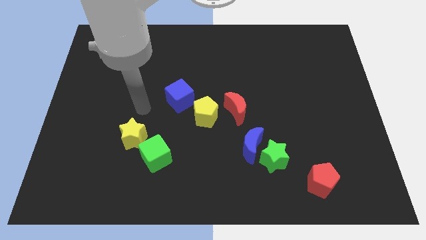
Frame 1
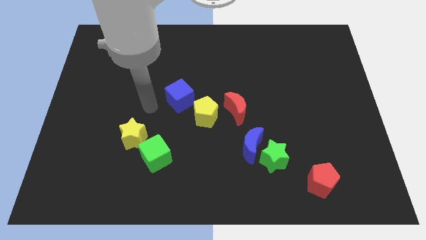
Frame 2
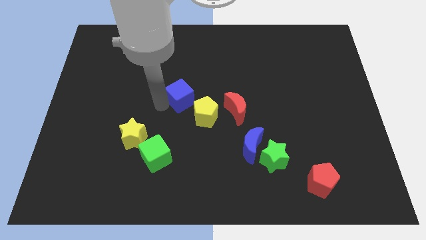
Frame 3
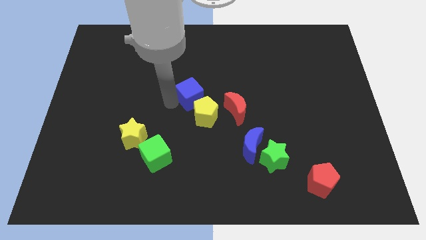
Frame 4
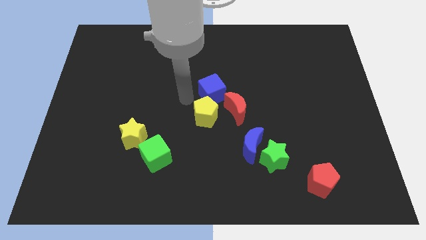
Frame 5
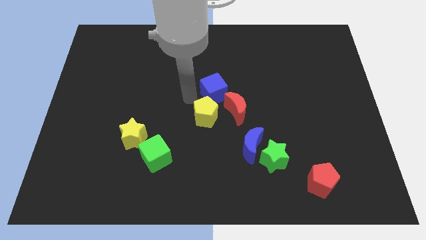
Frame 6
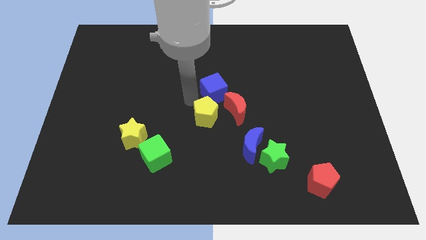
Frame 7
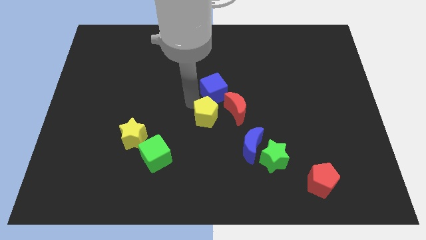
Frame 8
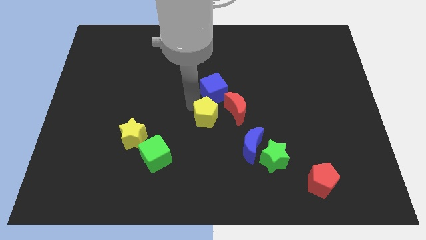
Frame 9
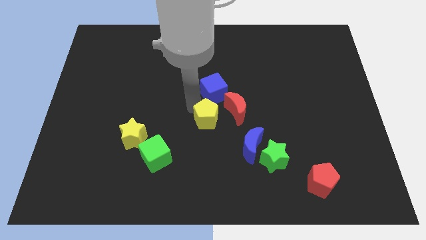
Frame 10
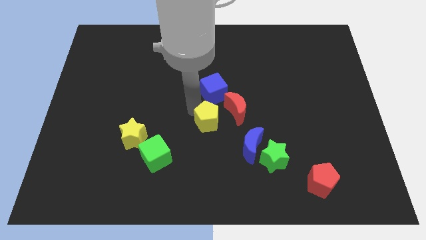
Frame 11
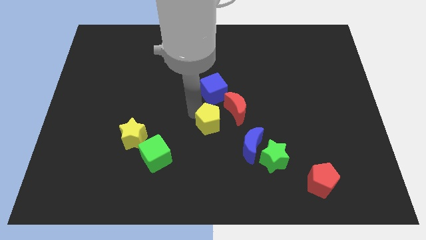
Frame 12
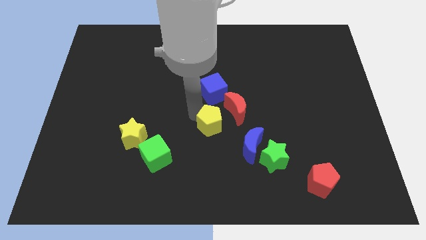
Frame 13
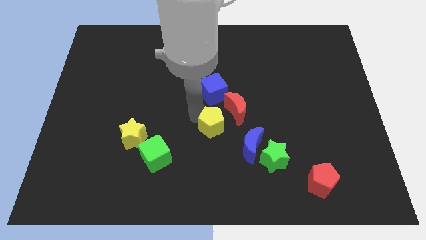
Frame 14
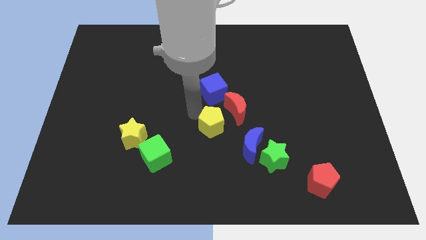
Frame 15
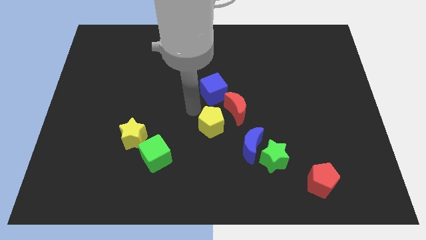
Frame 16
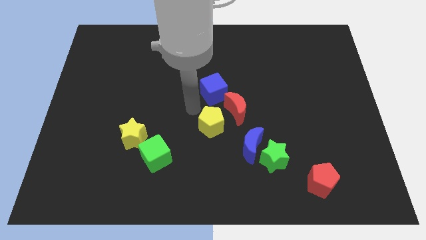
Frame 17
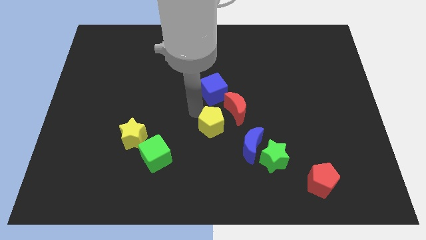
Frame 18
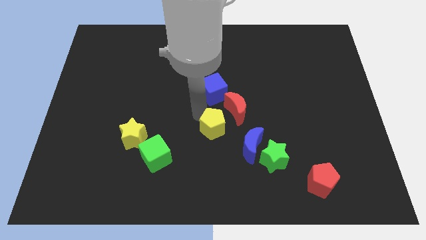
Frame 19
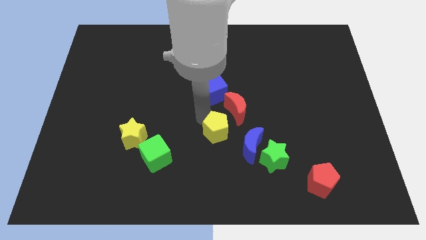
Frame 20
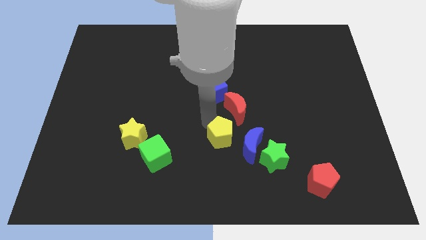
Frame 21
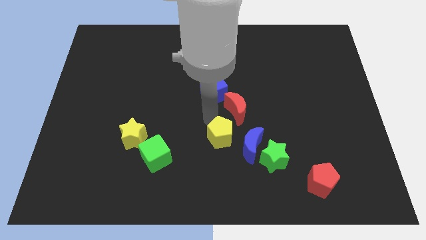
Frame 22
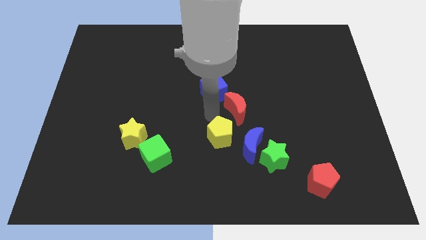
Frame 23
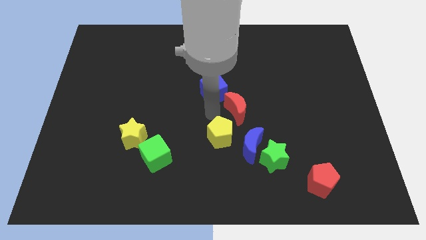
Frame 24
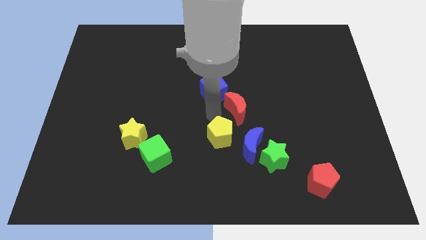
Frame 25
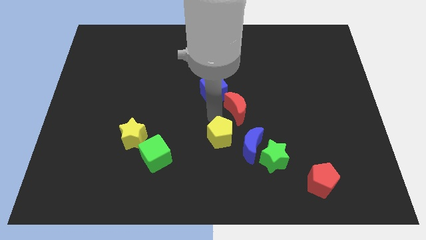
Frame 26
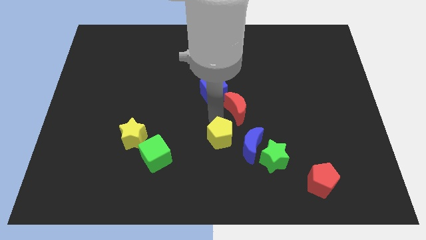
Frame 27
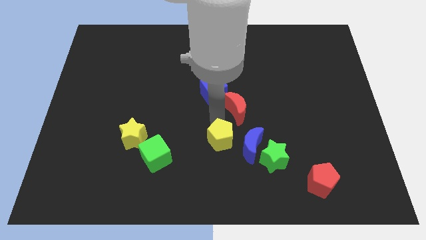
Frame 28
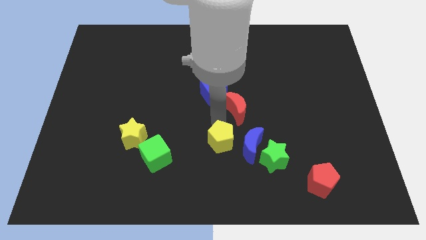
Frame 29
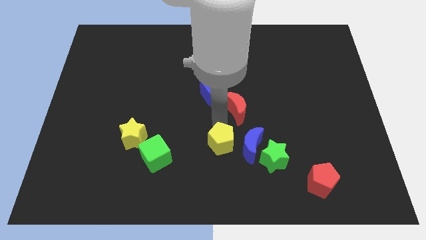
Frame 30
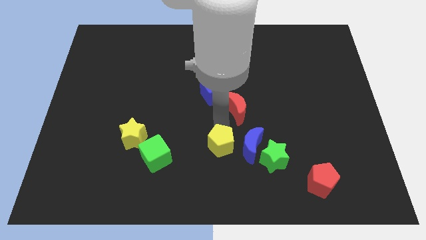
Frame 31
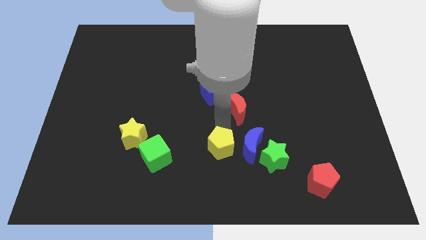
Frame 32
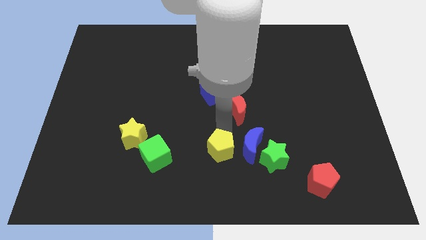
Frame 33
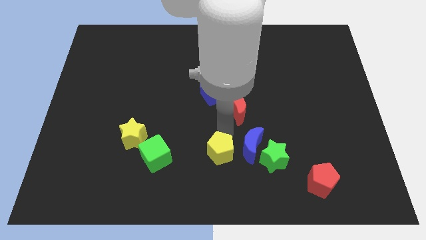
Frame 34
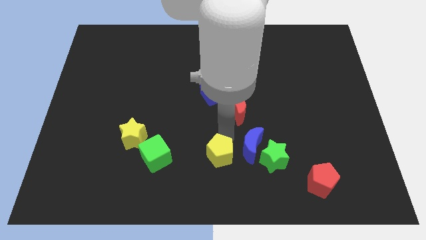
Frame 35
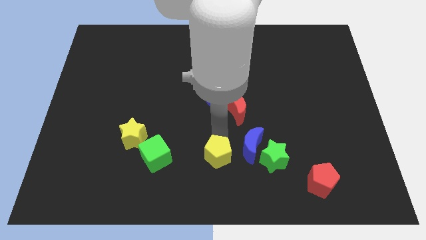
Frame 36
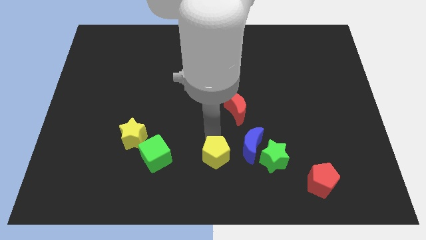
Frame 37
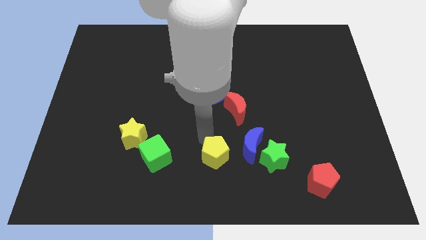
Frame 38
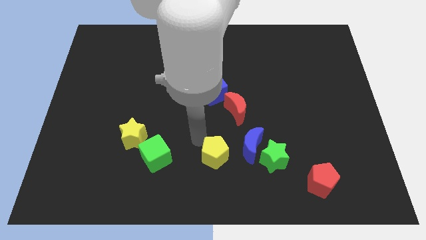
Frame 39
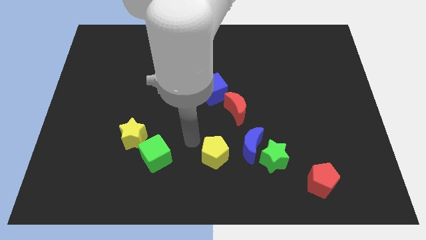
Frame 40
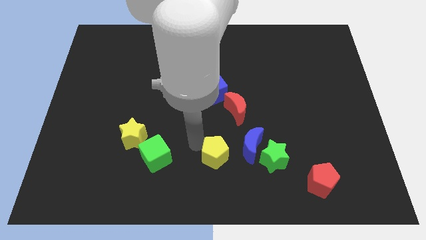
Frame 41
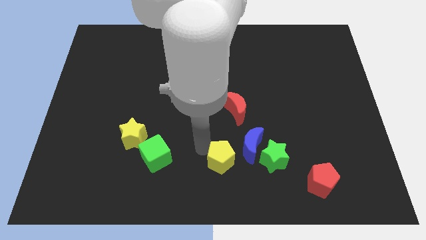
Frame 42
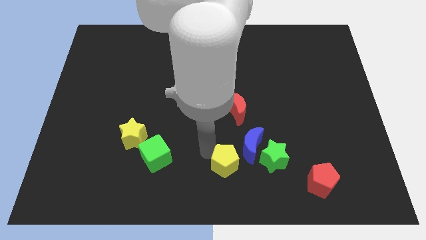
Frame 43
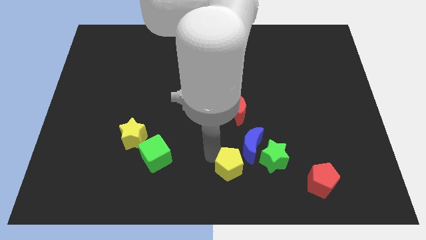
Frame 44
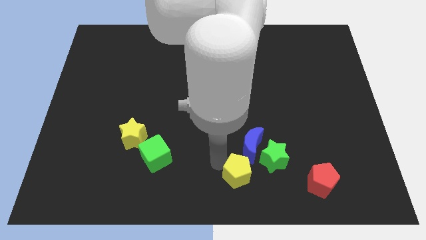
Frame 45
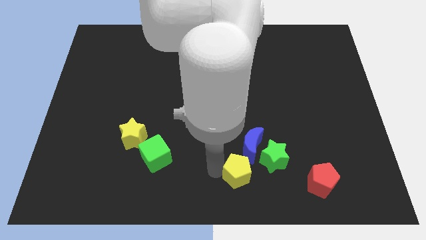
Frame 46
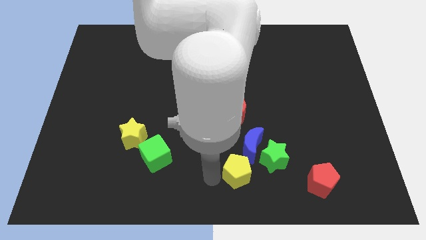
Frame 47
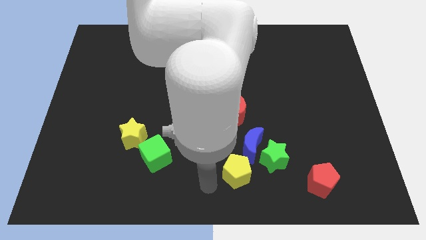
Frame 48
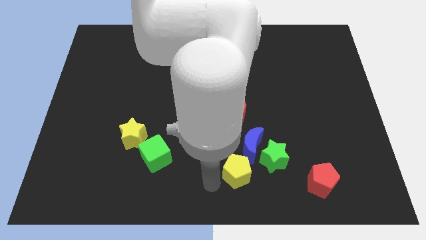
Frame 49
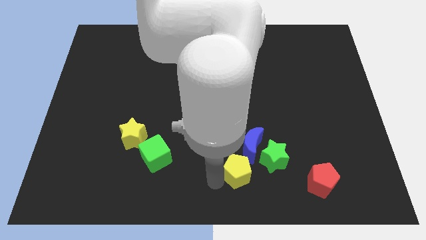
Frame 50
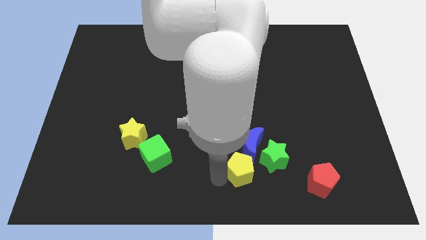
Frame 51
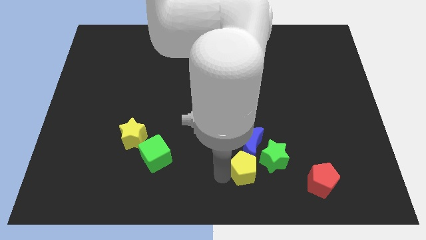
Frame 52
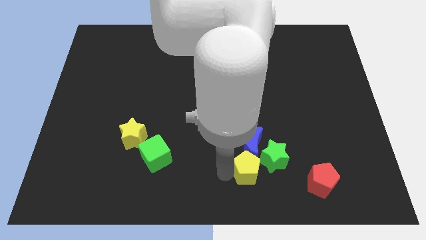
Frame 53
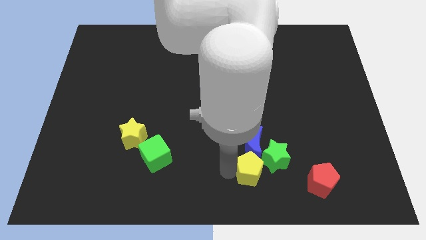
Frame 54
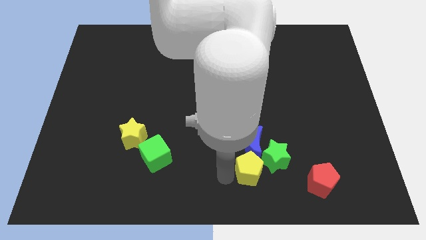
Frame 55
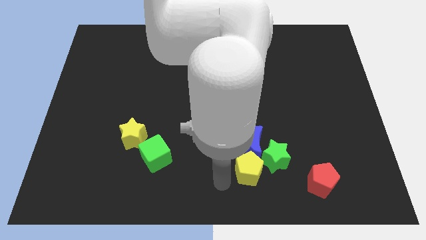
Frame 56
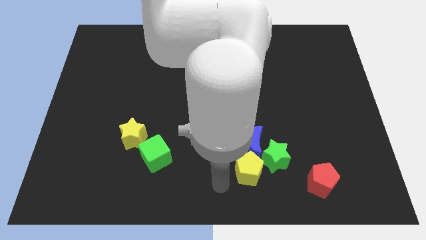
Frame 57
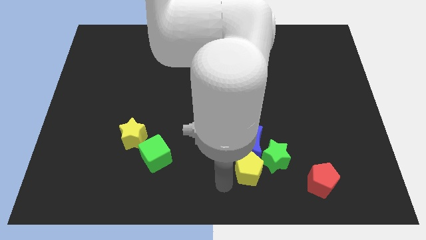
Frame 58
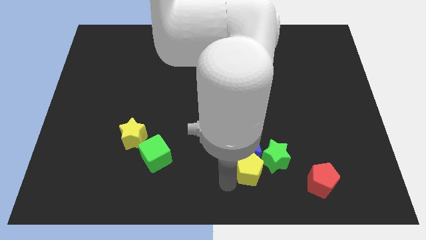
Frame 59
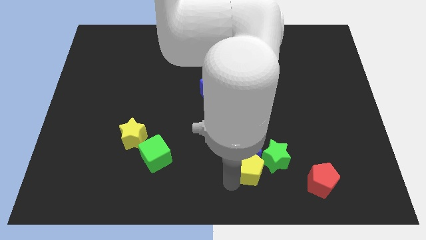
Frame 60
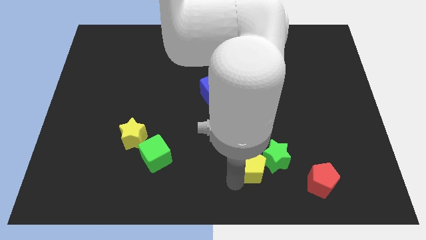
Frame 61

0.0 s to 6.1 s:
slide the yellow pentagon close to the green star
